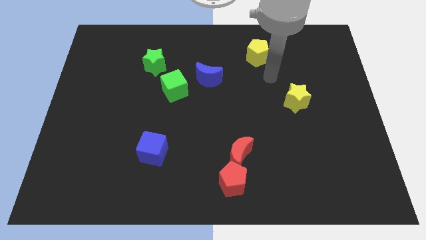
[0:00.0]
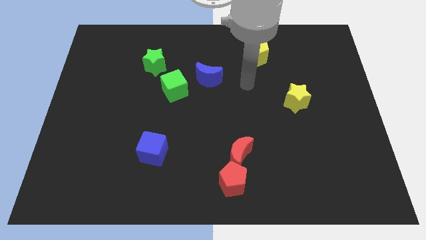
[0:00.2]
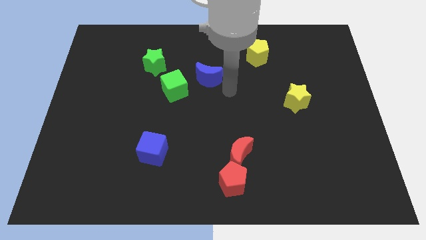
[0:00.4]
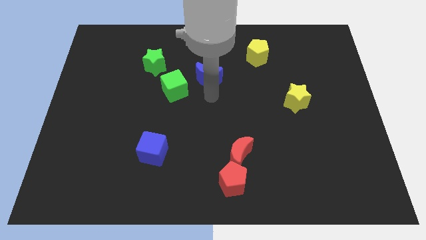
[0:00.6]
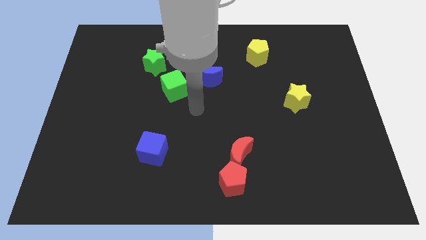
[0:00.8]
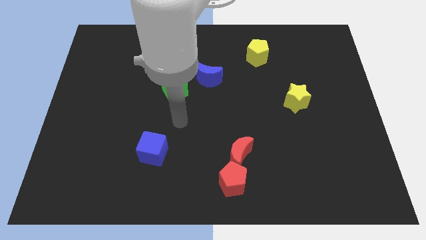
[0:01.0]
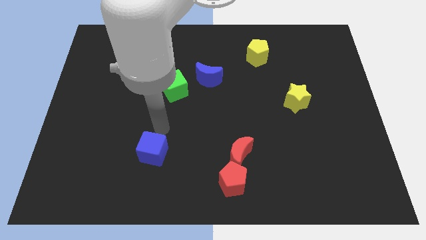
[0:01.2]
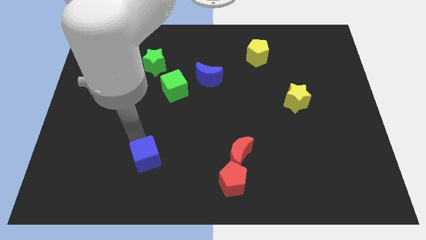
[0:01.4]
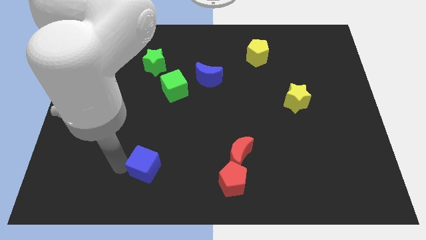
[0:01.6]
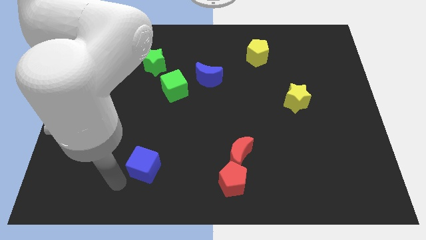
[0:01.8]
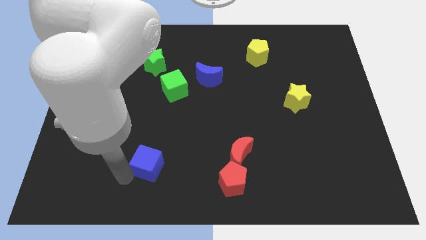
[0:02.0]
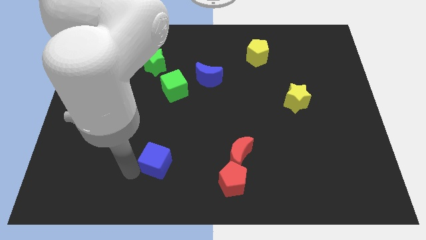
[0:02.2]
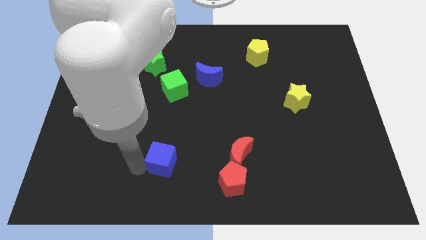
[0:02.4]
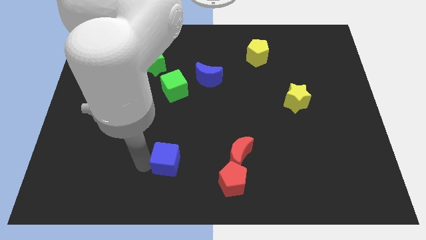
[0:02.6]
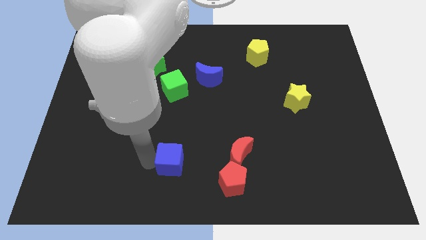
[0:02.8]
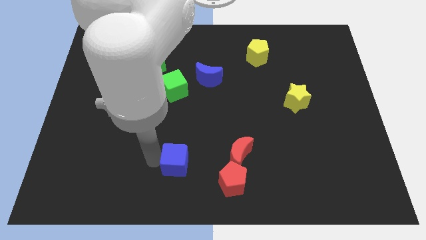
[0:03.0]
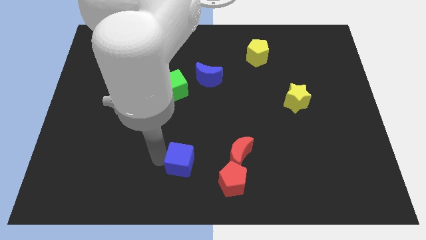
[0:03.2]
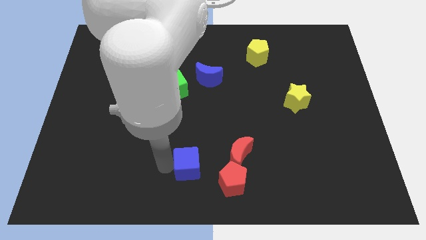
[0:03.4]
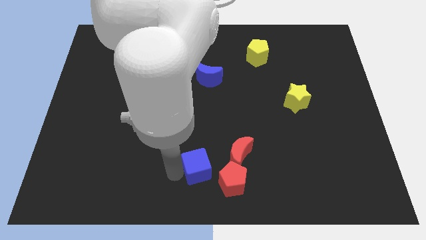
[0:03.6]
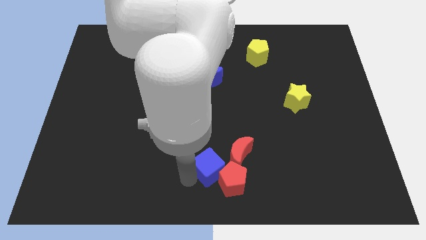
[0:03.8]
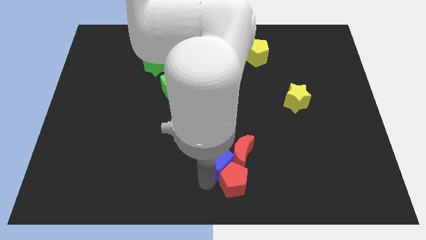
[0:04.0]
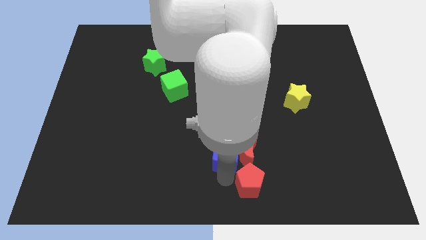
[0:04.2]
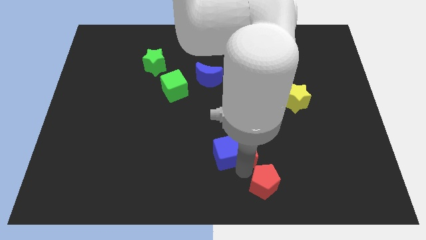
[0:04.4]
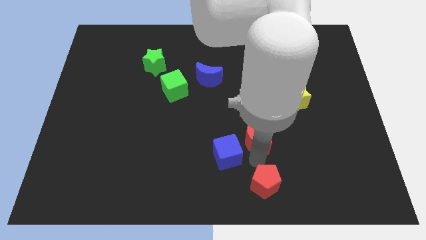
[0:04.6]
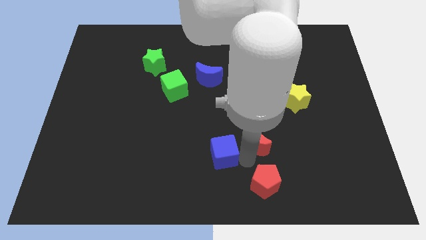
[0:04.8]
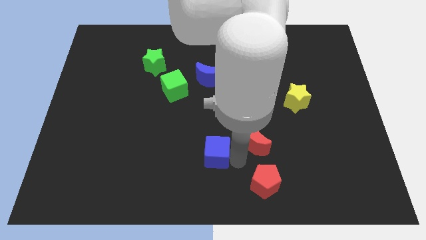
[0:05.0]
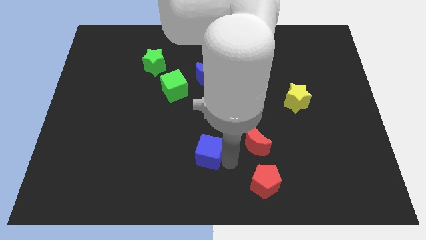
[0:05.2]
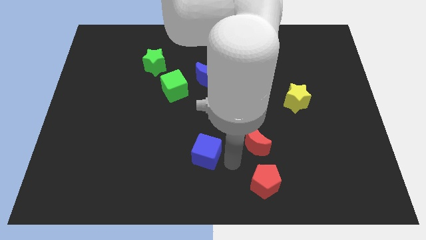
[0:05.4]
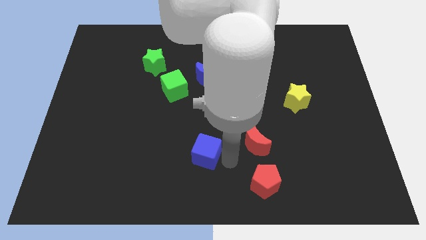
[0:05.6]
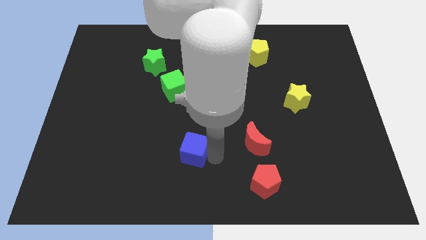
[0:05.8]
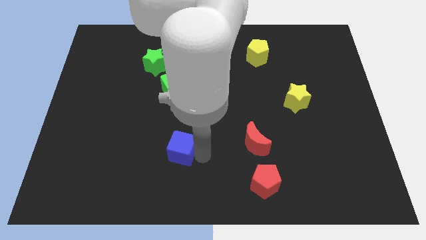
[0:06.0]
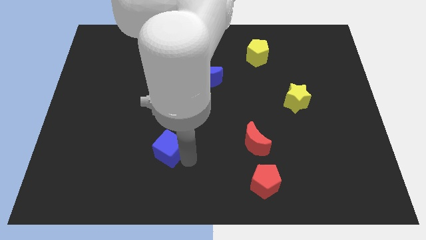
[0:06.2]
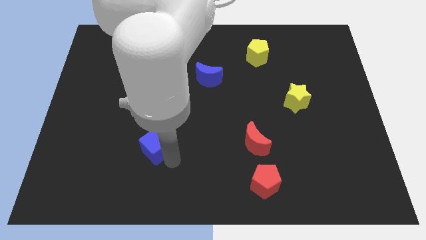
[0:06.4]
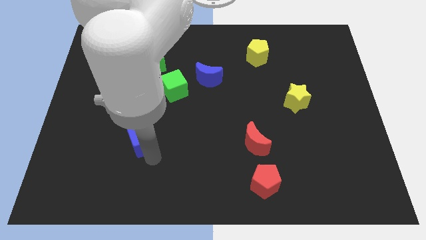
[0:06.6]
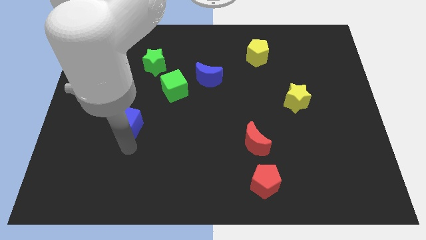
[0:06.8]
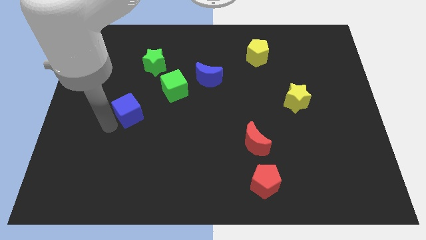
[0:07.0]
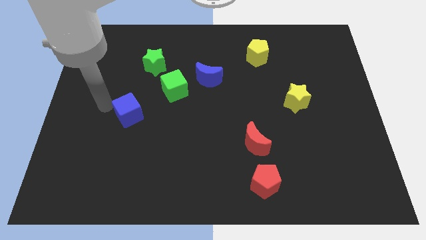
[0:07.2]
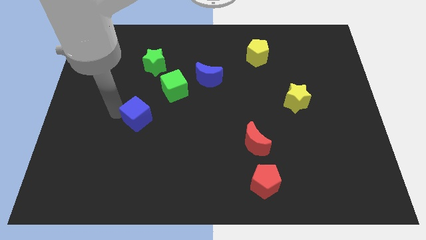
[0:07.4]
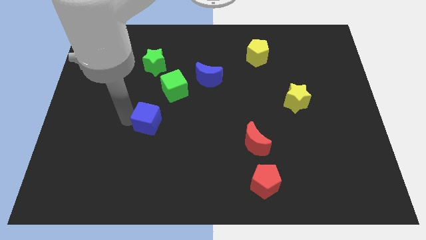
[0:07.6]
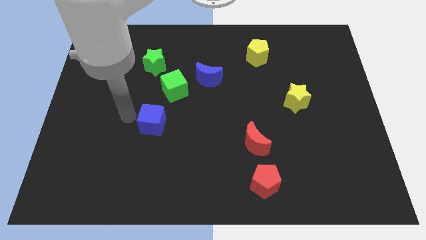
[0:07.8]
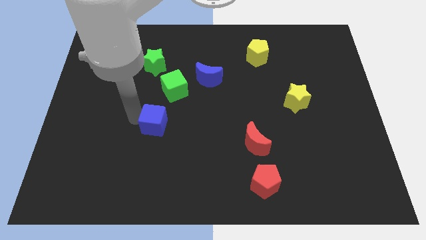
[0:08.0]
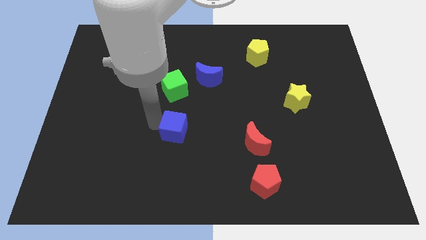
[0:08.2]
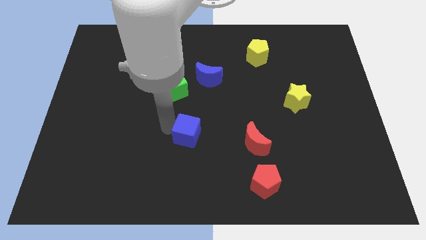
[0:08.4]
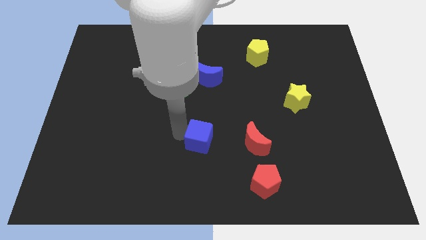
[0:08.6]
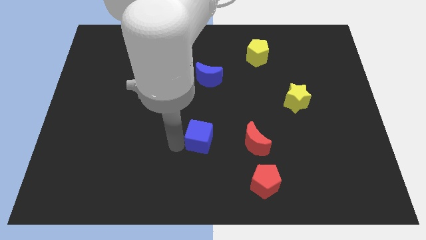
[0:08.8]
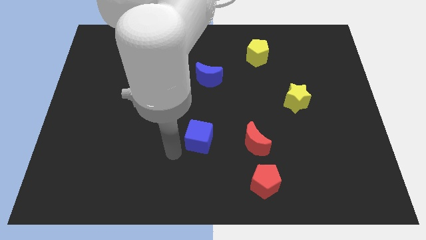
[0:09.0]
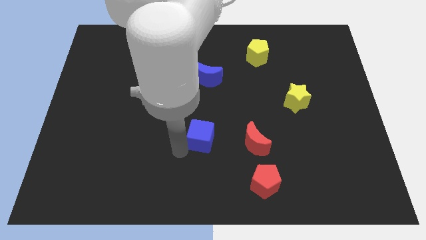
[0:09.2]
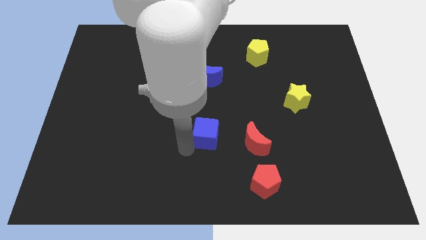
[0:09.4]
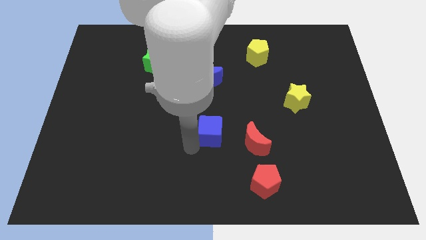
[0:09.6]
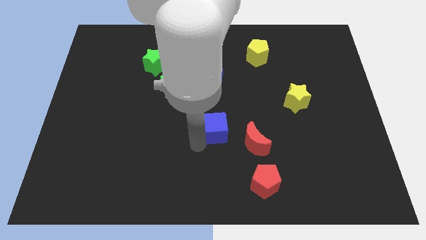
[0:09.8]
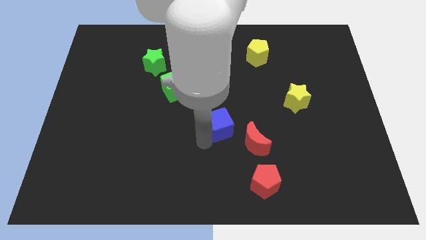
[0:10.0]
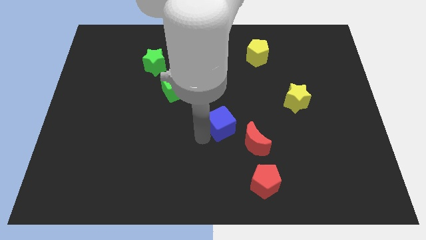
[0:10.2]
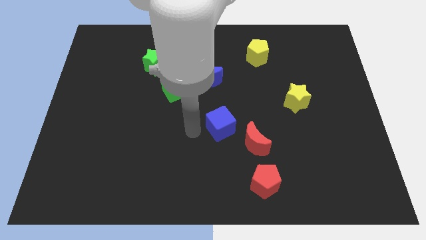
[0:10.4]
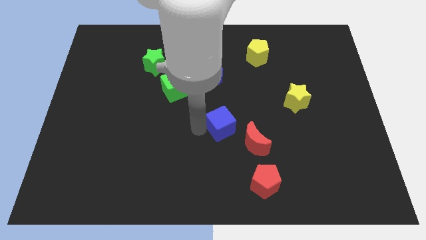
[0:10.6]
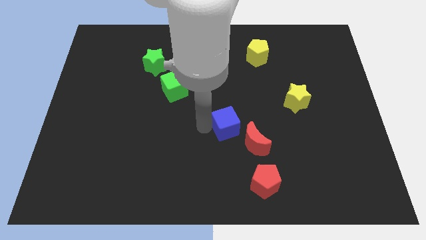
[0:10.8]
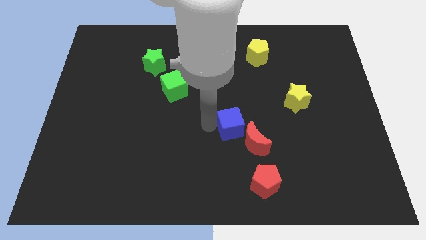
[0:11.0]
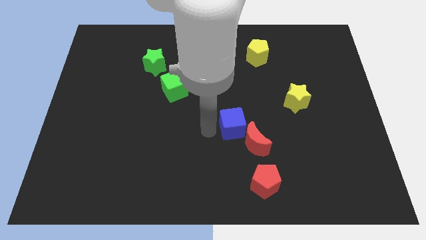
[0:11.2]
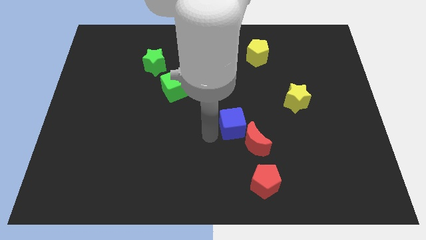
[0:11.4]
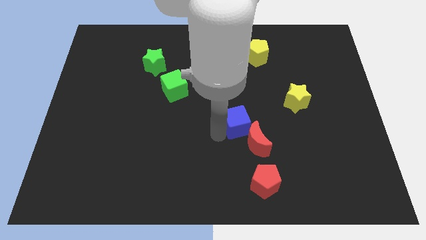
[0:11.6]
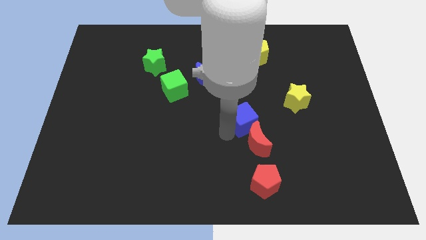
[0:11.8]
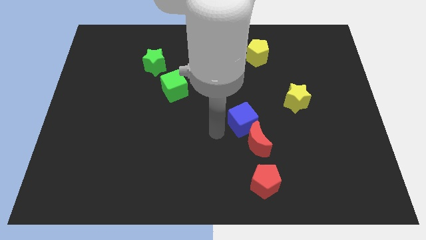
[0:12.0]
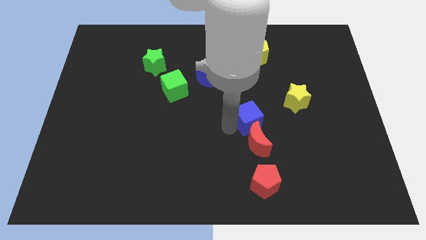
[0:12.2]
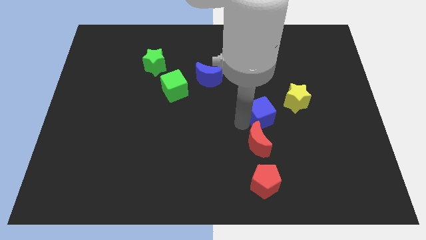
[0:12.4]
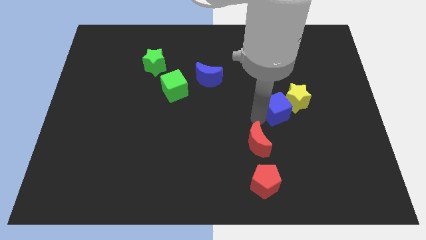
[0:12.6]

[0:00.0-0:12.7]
slide the blue cube next to the yellow star

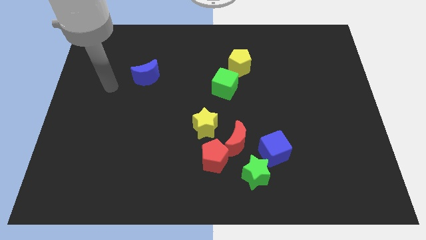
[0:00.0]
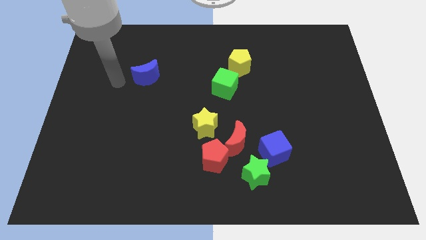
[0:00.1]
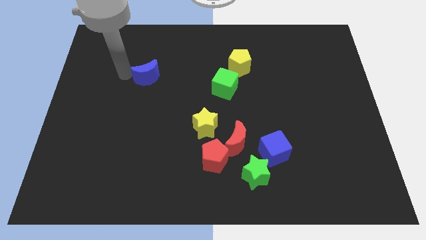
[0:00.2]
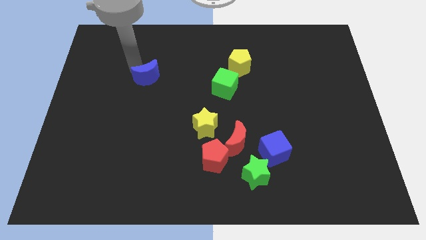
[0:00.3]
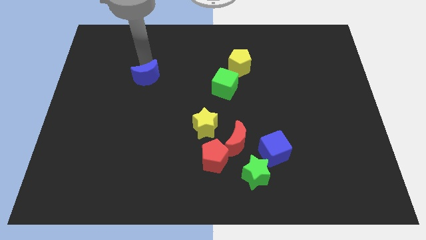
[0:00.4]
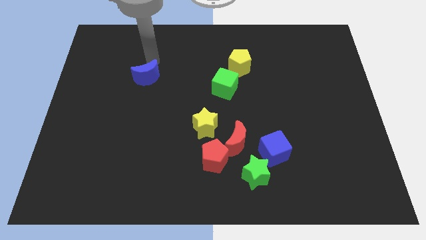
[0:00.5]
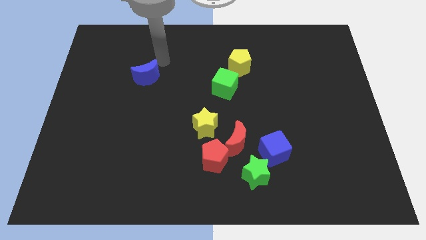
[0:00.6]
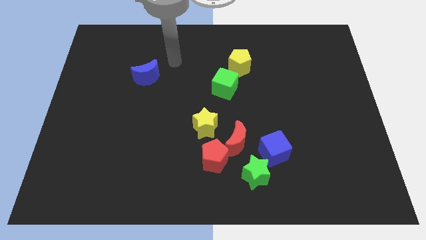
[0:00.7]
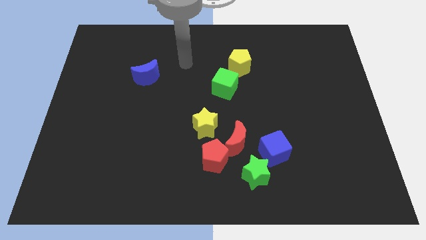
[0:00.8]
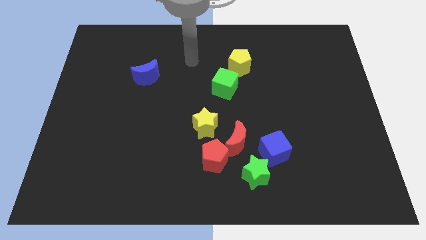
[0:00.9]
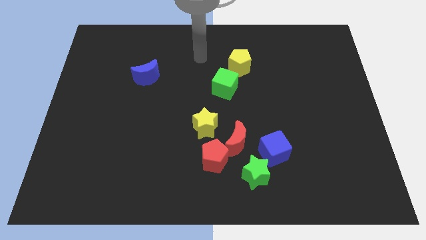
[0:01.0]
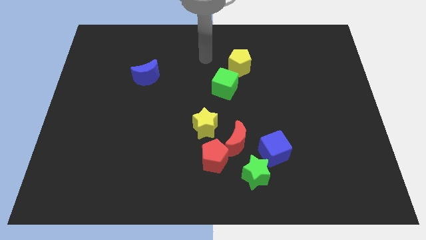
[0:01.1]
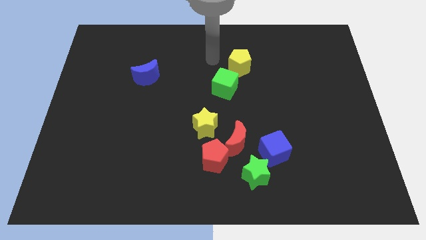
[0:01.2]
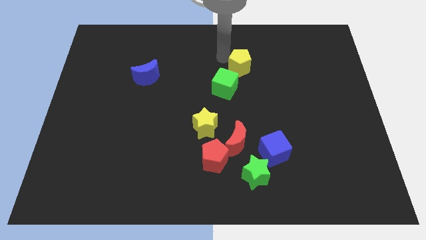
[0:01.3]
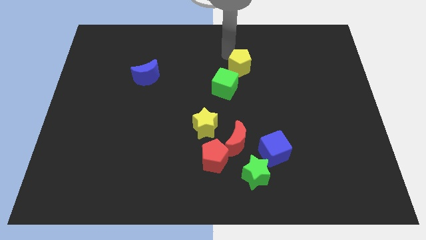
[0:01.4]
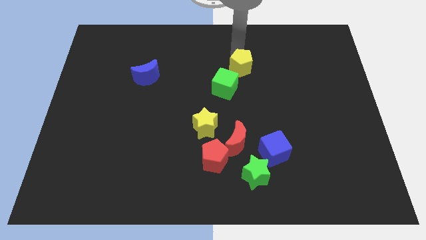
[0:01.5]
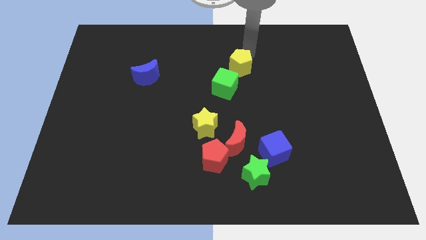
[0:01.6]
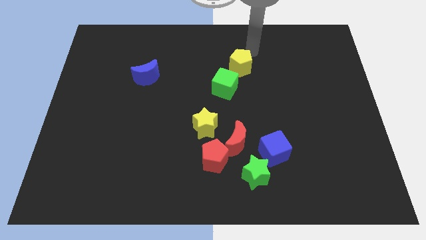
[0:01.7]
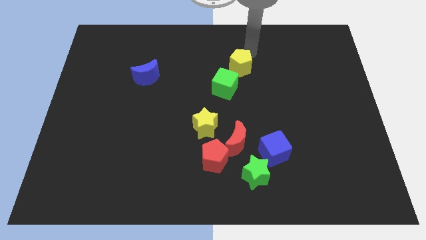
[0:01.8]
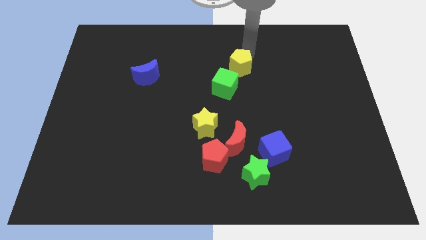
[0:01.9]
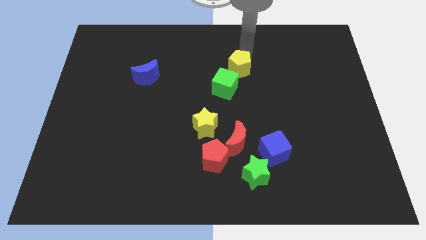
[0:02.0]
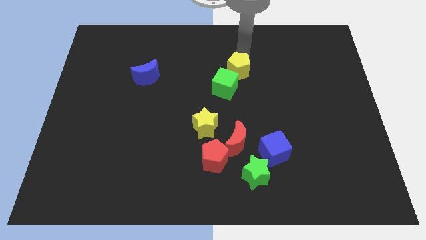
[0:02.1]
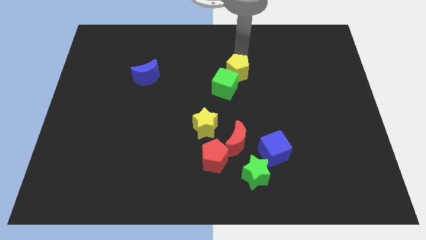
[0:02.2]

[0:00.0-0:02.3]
put the yellow pentagon close to the green cube
